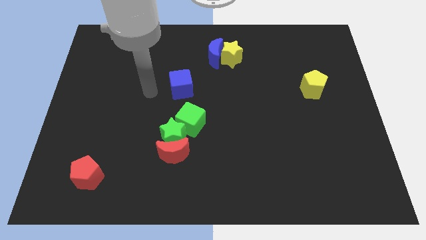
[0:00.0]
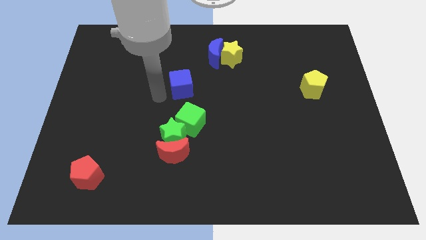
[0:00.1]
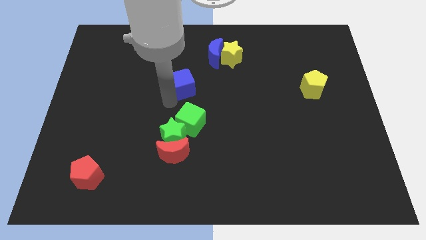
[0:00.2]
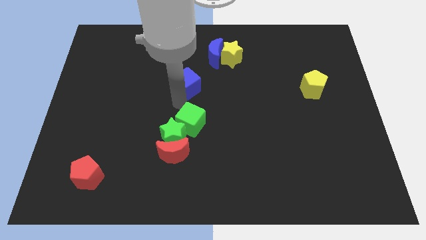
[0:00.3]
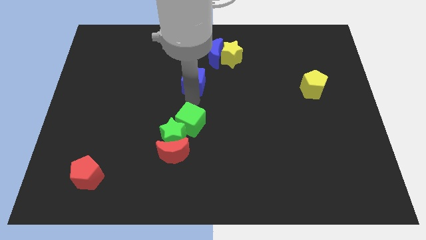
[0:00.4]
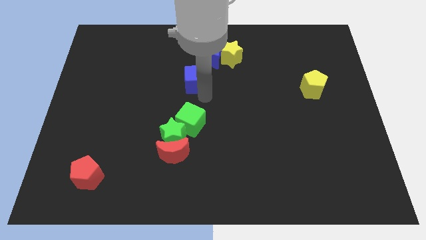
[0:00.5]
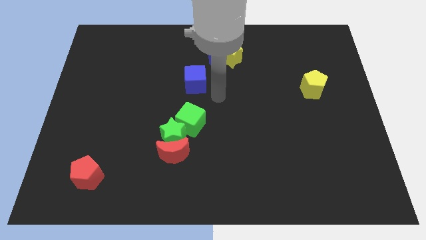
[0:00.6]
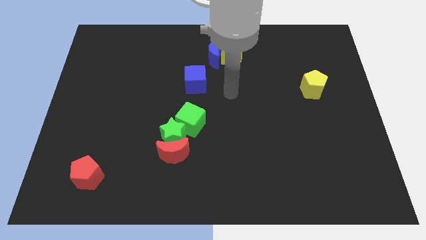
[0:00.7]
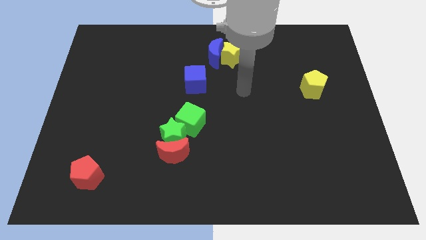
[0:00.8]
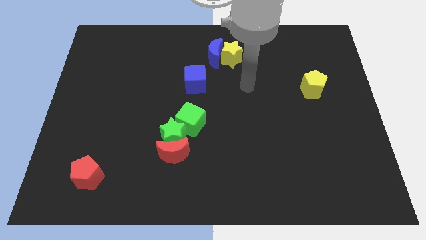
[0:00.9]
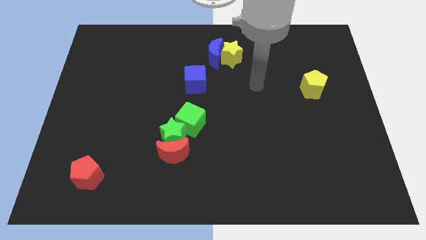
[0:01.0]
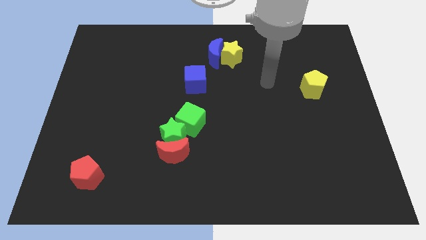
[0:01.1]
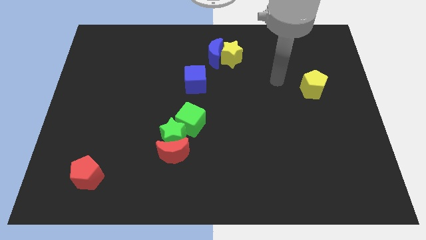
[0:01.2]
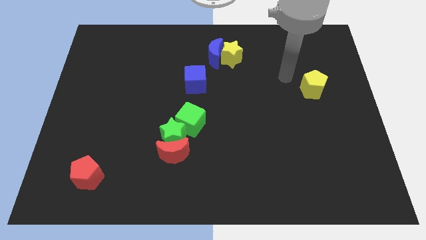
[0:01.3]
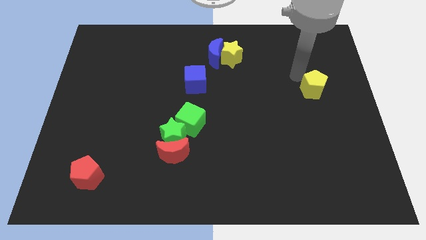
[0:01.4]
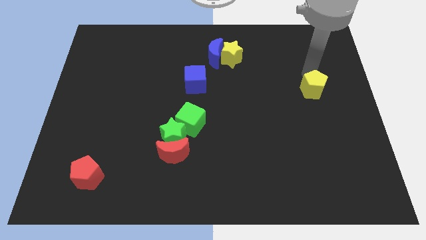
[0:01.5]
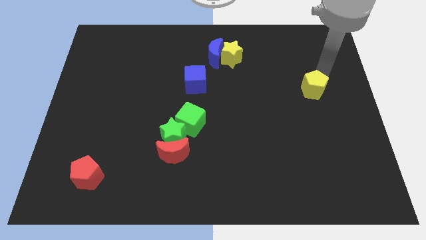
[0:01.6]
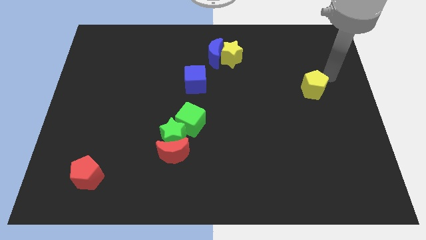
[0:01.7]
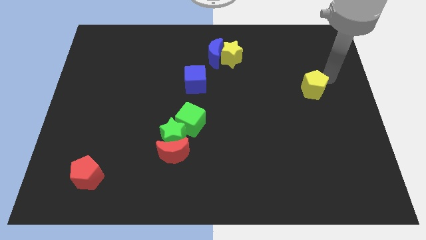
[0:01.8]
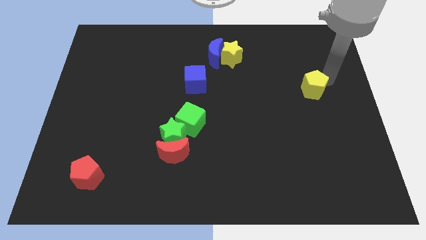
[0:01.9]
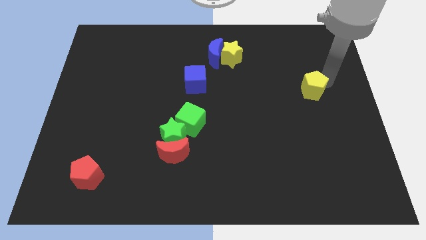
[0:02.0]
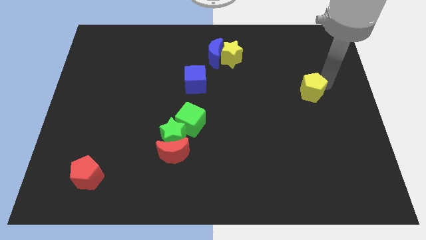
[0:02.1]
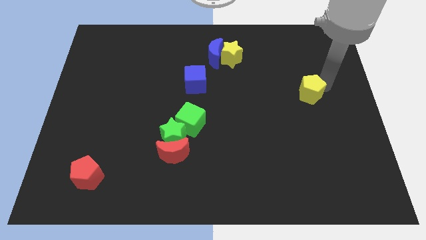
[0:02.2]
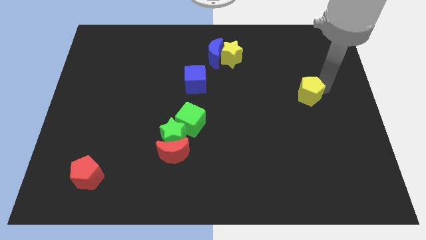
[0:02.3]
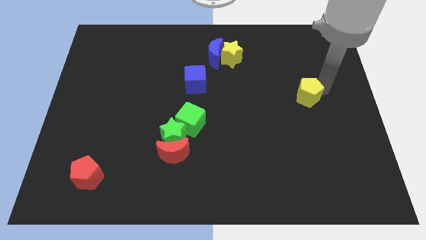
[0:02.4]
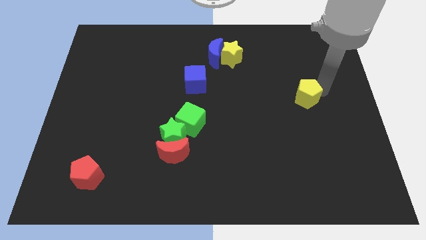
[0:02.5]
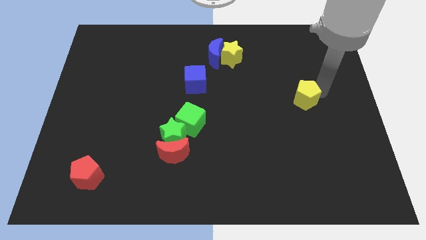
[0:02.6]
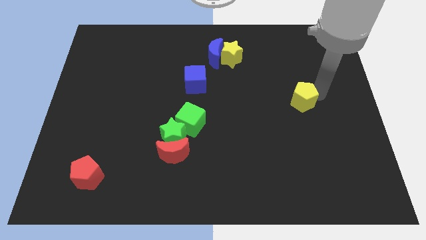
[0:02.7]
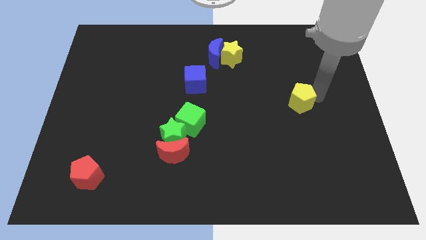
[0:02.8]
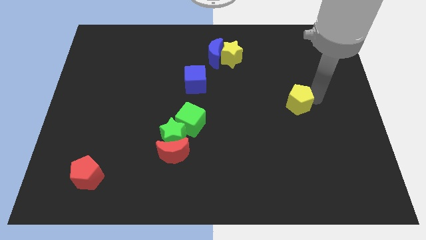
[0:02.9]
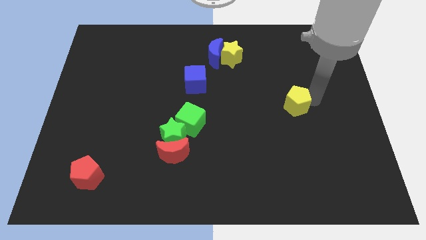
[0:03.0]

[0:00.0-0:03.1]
slide the yellow pentagon down and then left a little bit

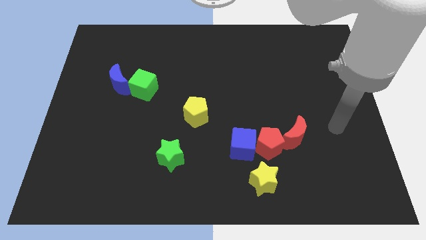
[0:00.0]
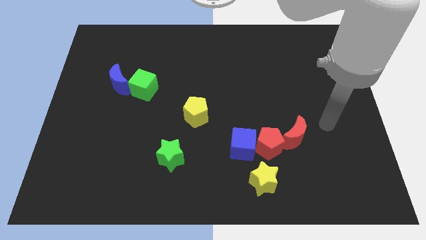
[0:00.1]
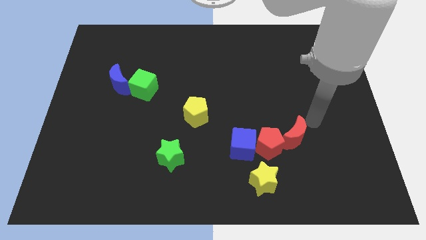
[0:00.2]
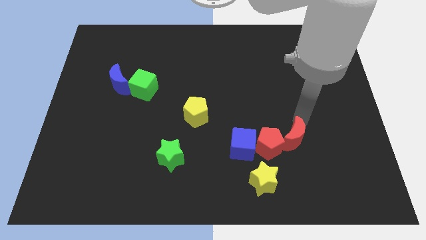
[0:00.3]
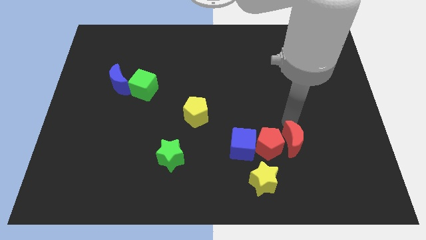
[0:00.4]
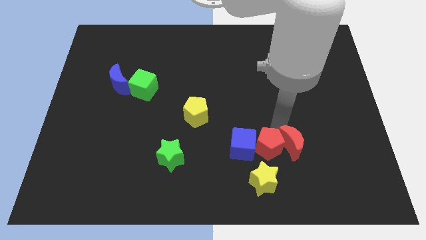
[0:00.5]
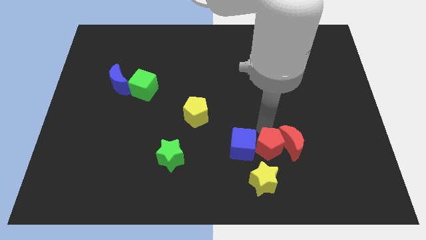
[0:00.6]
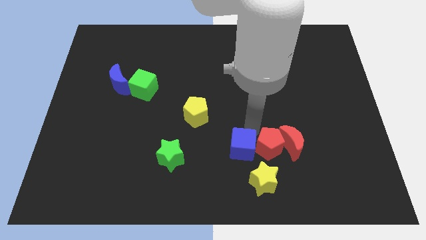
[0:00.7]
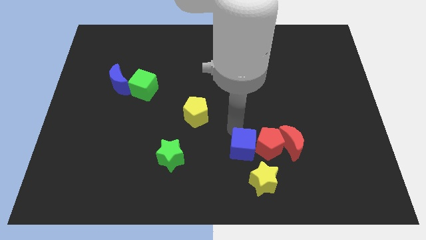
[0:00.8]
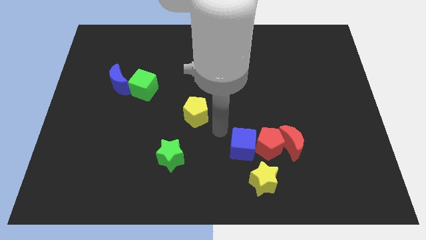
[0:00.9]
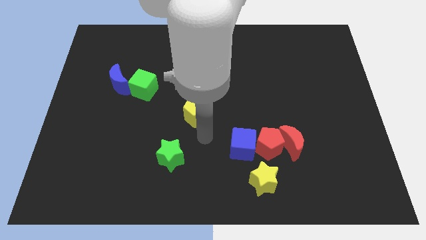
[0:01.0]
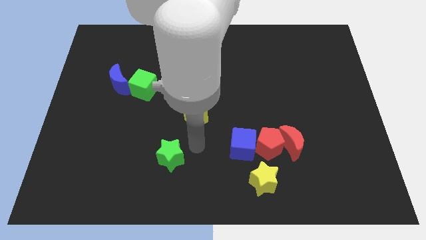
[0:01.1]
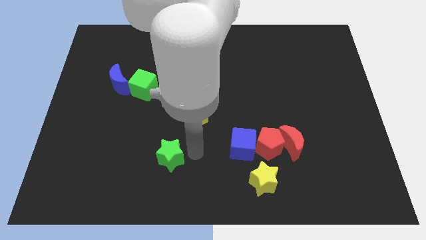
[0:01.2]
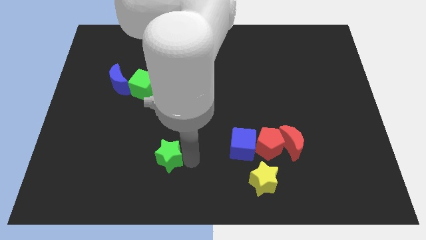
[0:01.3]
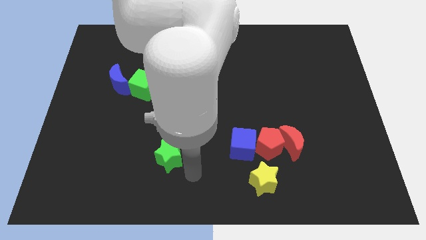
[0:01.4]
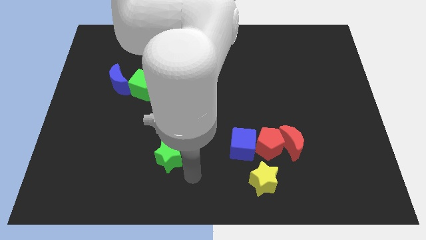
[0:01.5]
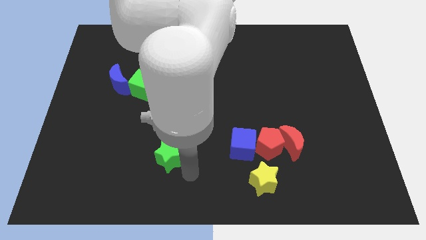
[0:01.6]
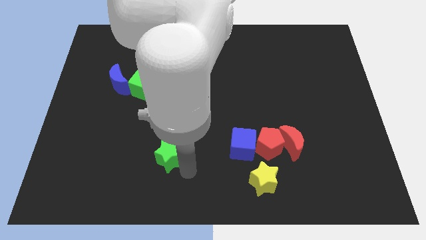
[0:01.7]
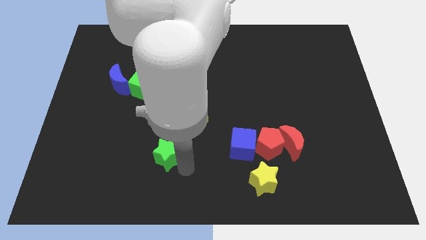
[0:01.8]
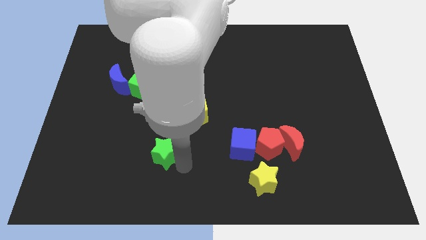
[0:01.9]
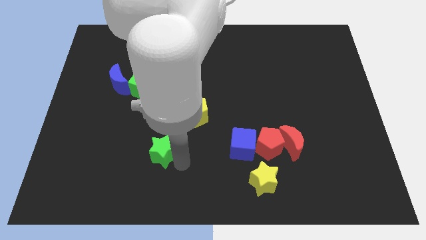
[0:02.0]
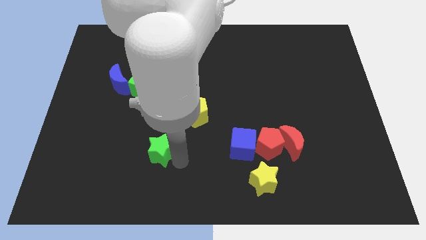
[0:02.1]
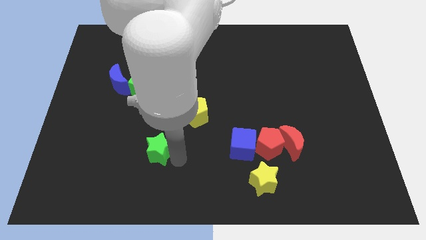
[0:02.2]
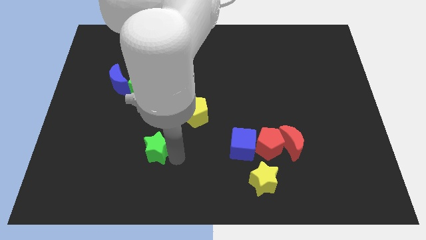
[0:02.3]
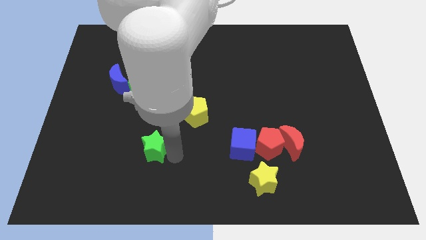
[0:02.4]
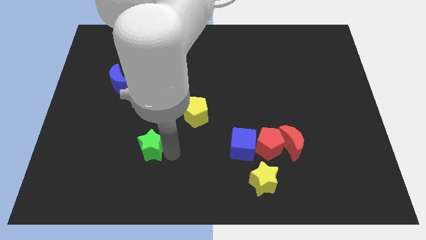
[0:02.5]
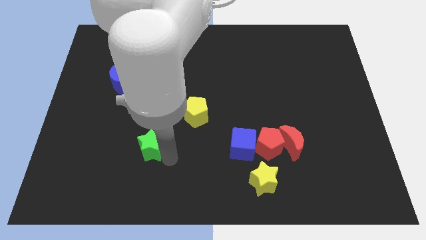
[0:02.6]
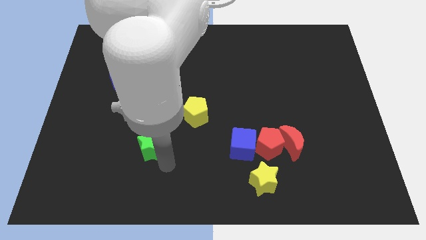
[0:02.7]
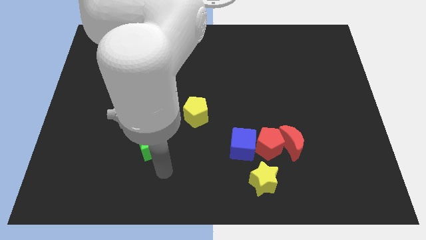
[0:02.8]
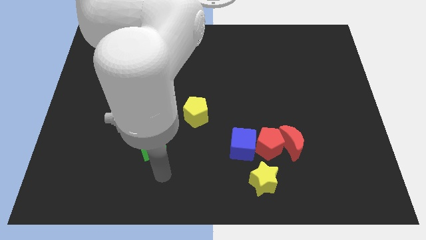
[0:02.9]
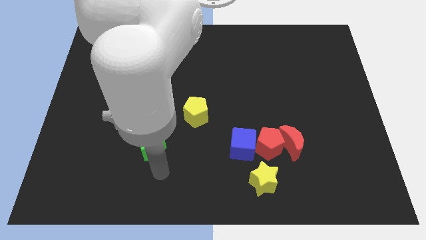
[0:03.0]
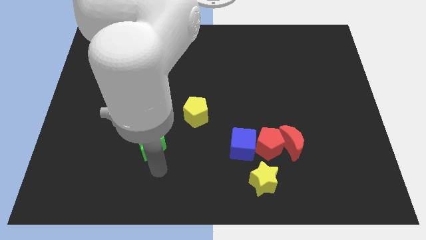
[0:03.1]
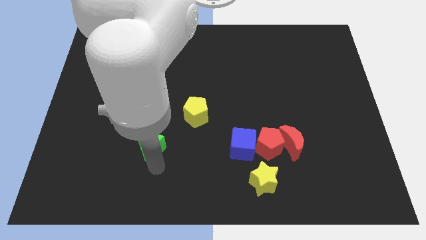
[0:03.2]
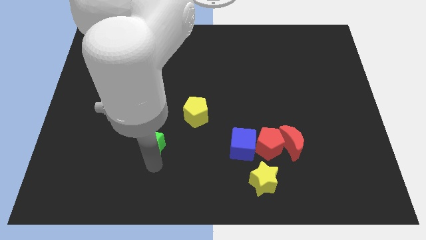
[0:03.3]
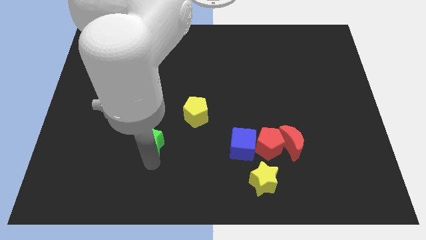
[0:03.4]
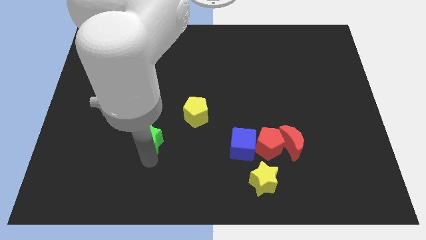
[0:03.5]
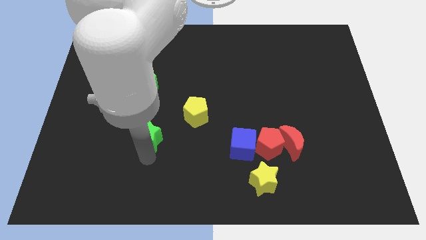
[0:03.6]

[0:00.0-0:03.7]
slide the green star diagonally up and left a bit

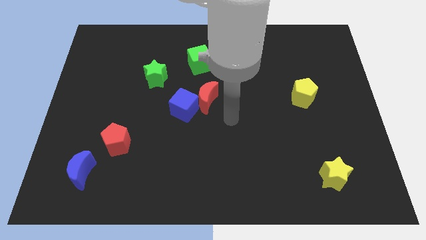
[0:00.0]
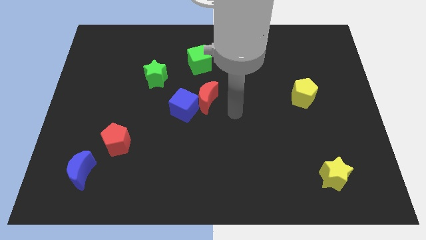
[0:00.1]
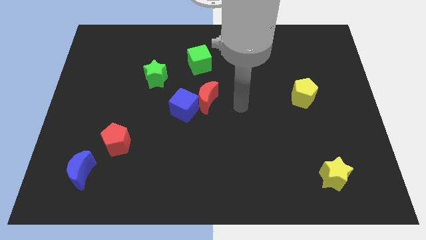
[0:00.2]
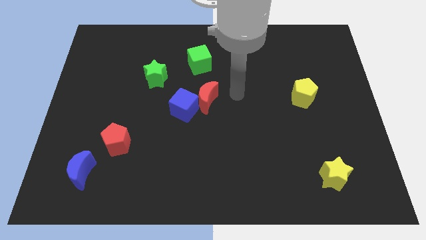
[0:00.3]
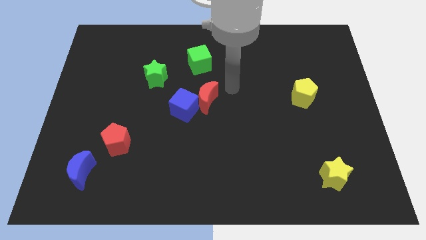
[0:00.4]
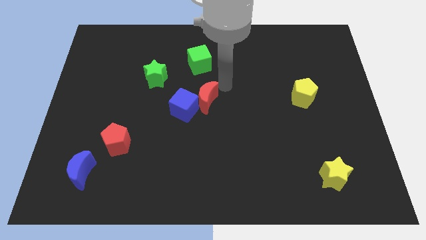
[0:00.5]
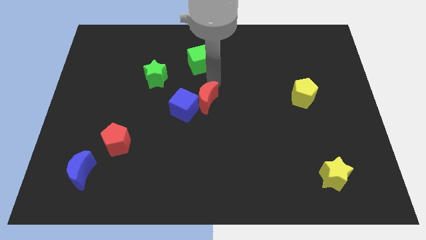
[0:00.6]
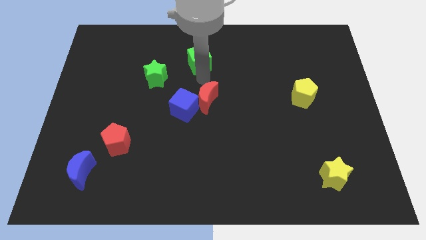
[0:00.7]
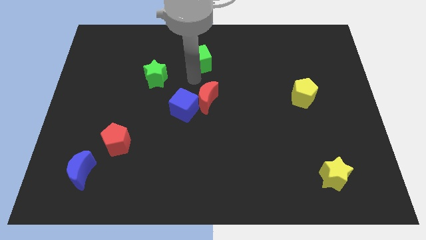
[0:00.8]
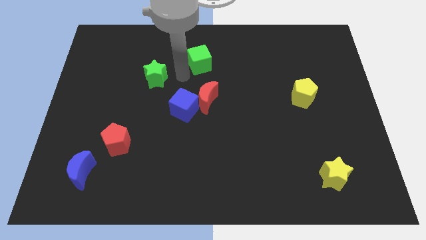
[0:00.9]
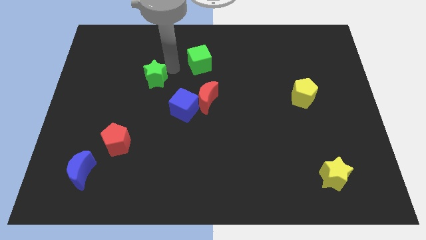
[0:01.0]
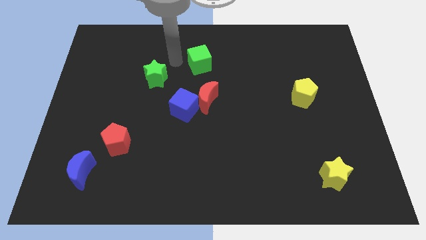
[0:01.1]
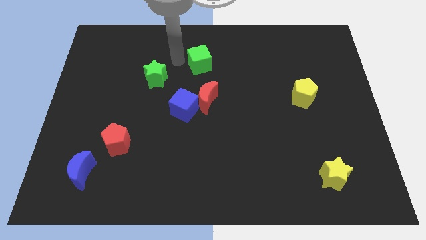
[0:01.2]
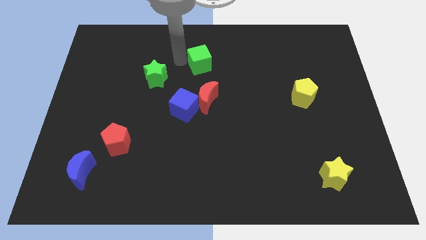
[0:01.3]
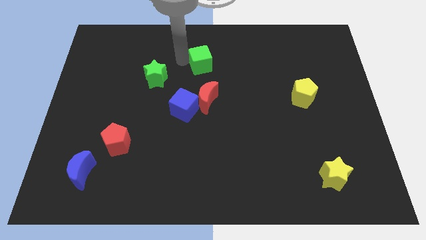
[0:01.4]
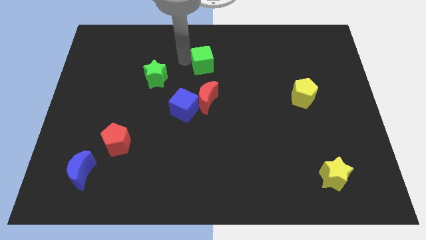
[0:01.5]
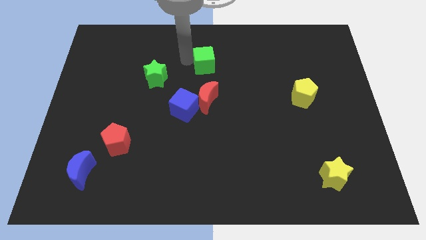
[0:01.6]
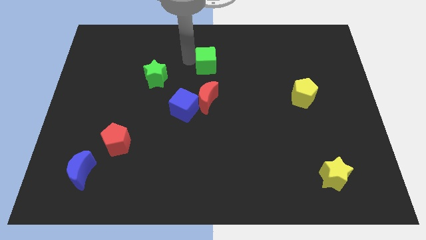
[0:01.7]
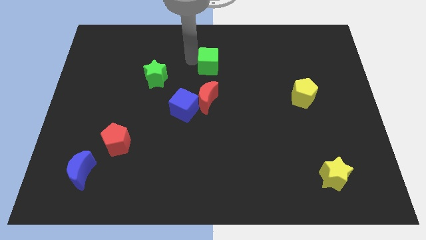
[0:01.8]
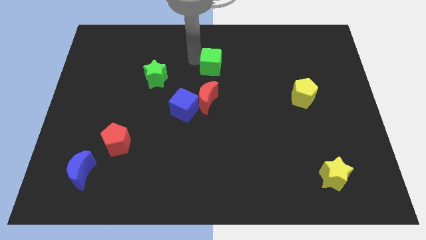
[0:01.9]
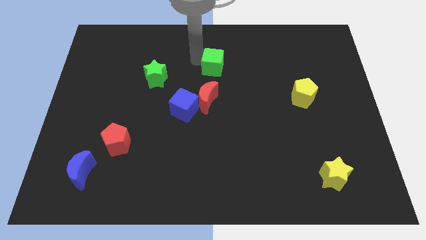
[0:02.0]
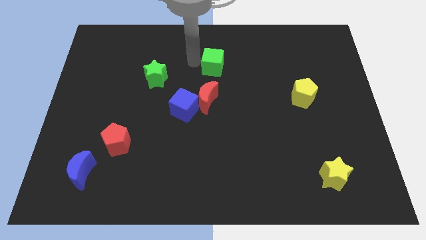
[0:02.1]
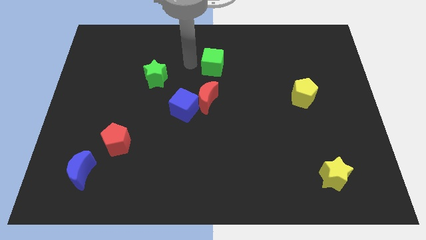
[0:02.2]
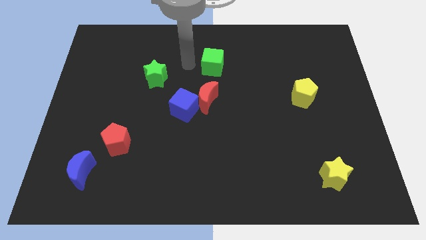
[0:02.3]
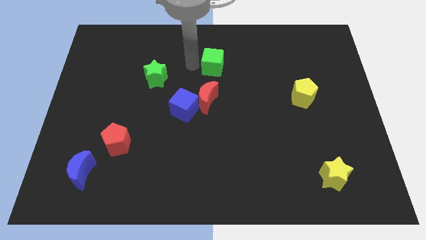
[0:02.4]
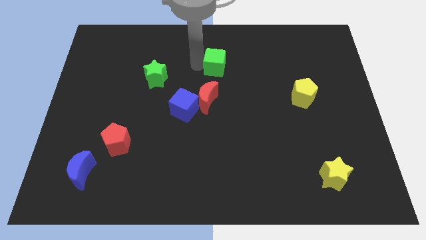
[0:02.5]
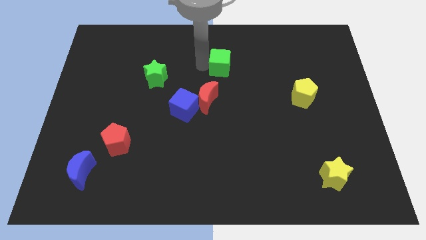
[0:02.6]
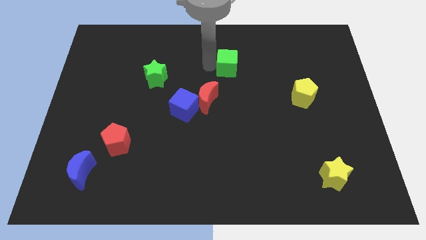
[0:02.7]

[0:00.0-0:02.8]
slide the green cube right somewhat
